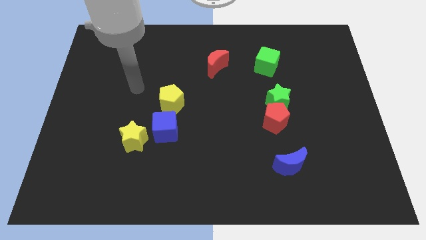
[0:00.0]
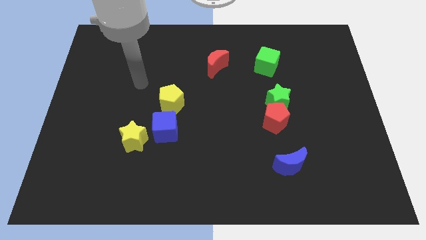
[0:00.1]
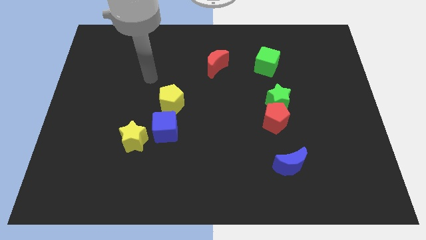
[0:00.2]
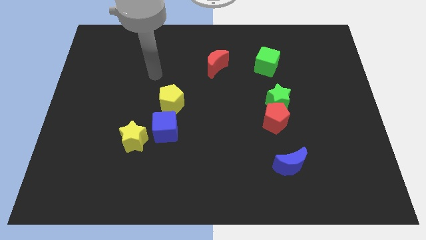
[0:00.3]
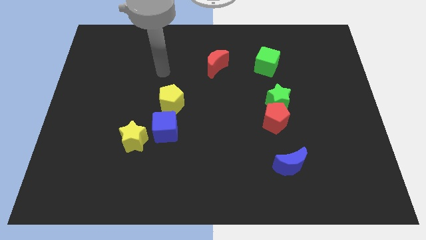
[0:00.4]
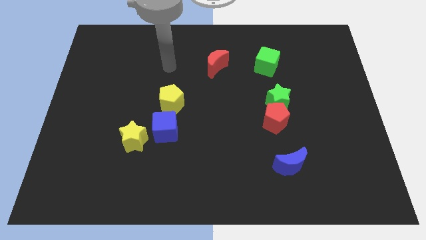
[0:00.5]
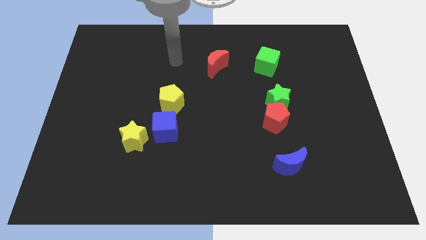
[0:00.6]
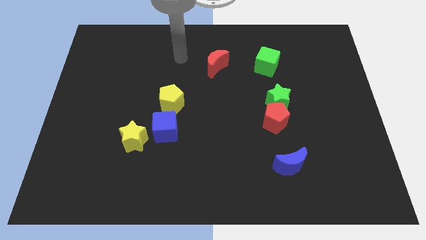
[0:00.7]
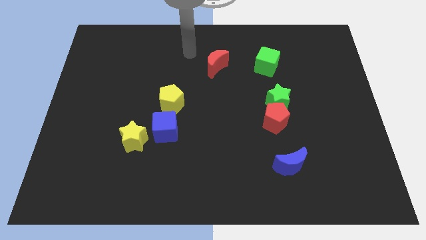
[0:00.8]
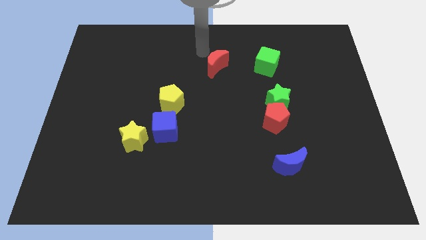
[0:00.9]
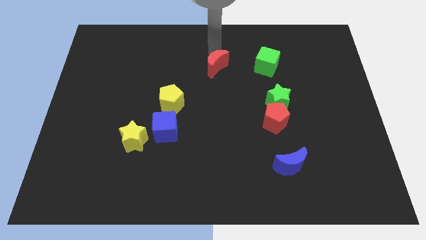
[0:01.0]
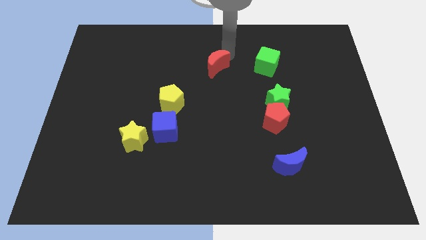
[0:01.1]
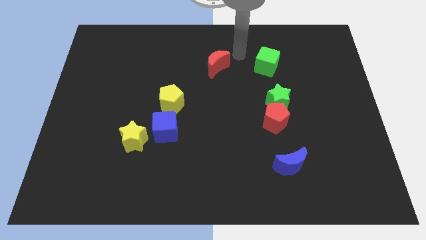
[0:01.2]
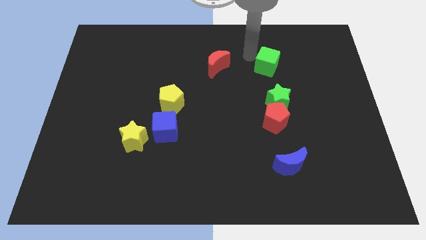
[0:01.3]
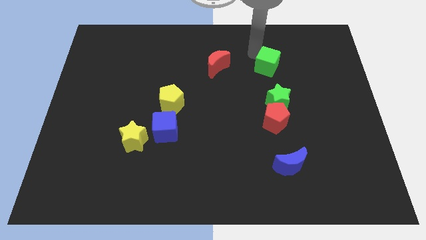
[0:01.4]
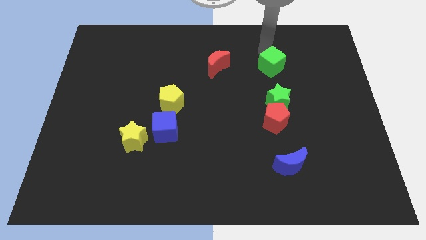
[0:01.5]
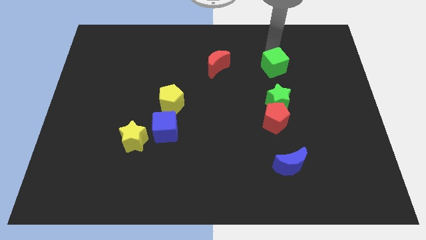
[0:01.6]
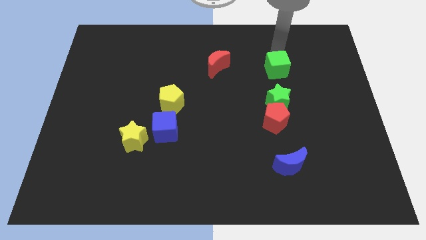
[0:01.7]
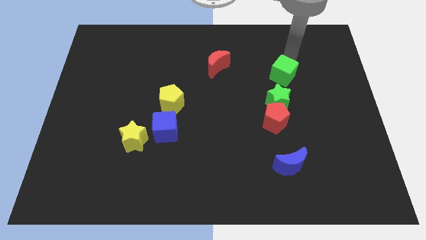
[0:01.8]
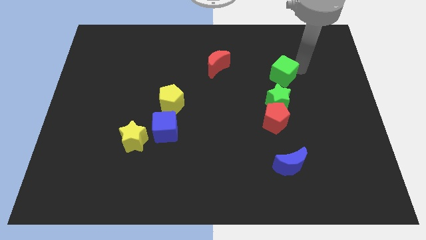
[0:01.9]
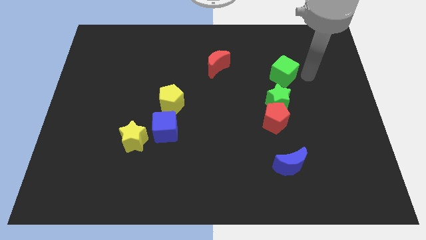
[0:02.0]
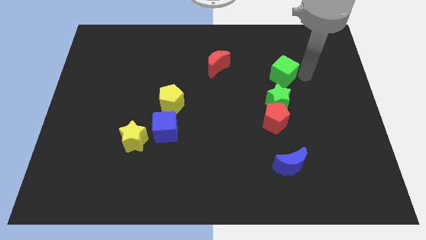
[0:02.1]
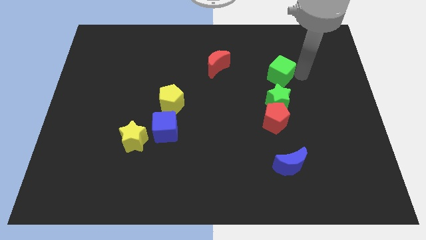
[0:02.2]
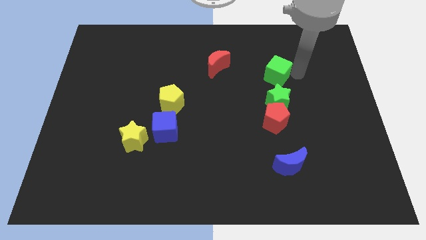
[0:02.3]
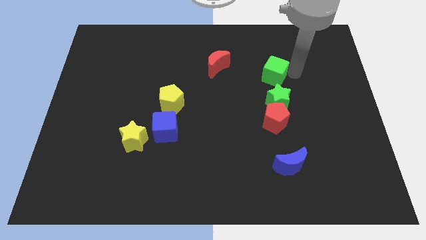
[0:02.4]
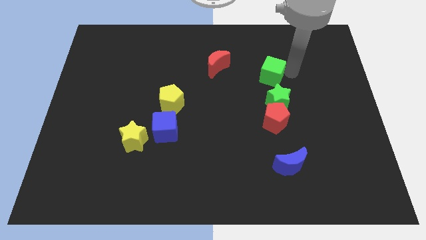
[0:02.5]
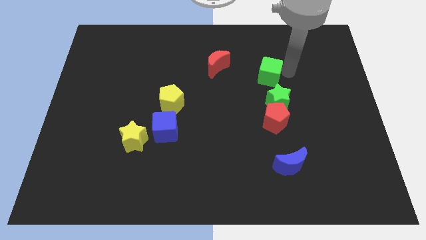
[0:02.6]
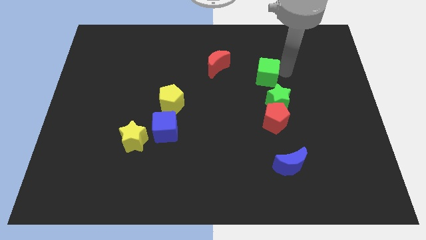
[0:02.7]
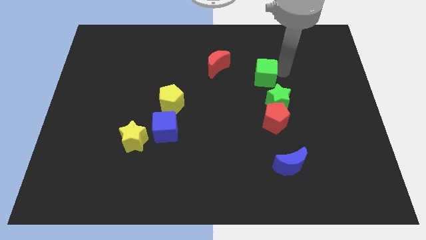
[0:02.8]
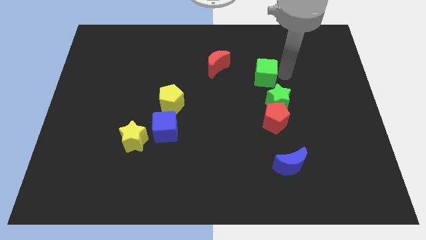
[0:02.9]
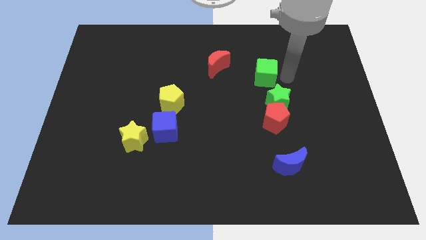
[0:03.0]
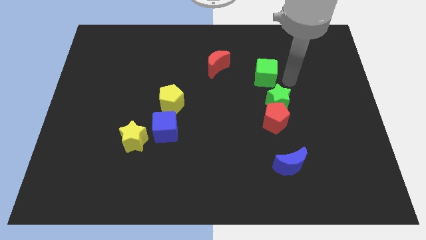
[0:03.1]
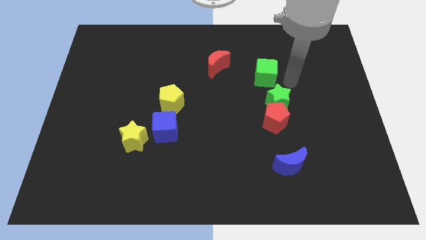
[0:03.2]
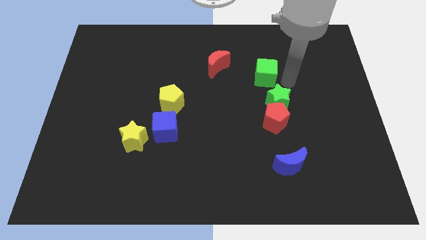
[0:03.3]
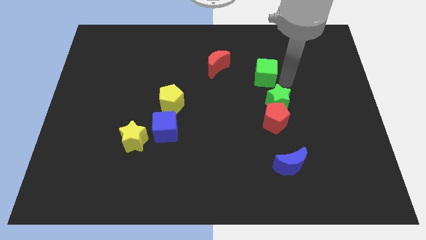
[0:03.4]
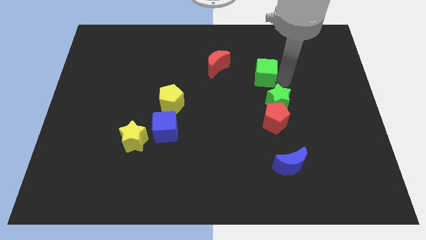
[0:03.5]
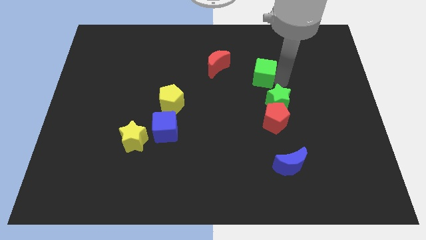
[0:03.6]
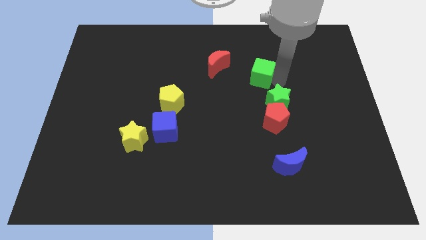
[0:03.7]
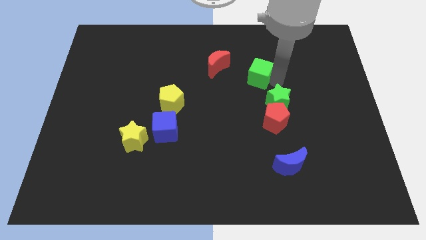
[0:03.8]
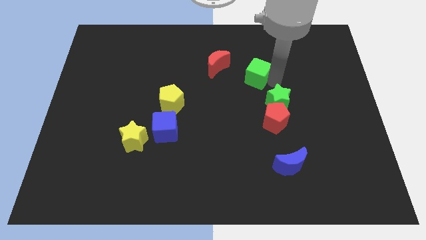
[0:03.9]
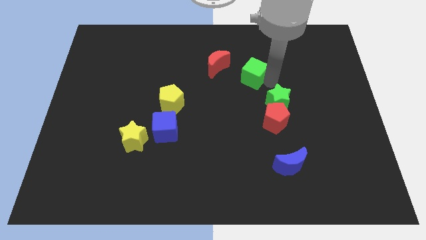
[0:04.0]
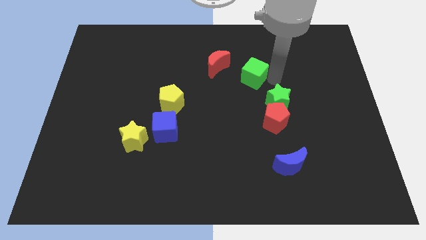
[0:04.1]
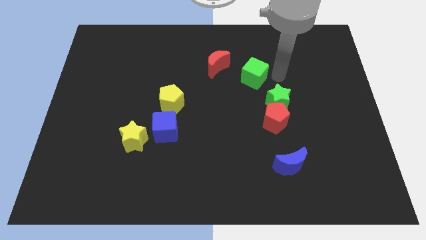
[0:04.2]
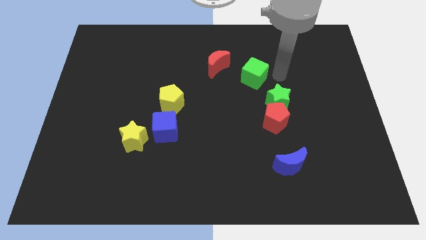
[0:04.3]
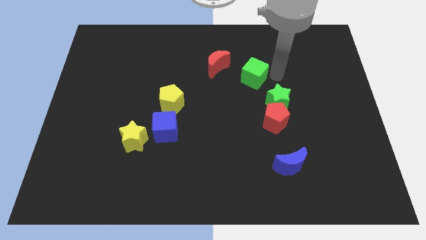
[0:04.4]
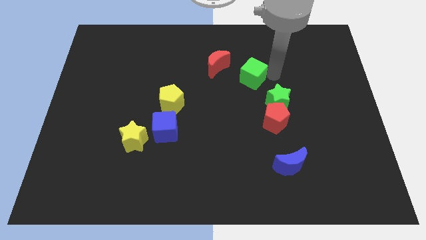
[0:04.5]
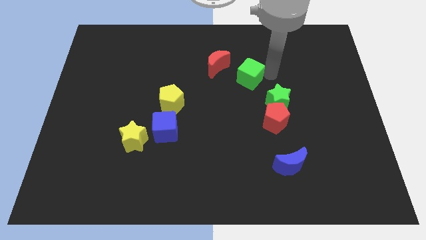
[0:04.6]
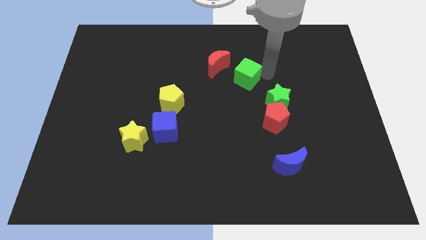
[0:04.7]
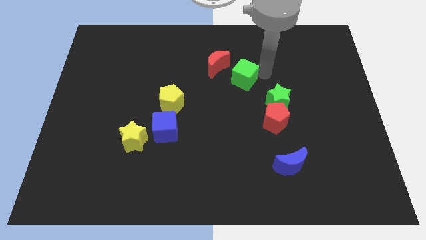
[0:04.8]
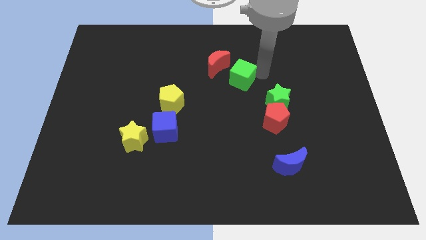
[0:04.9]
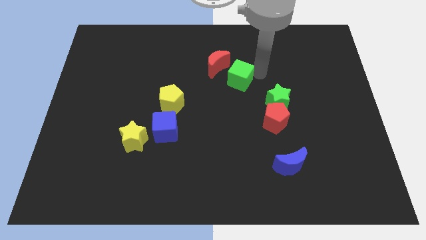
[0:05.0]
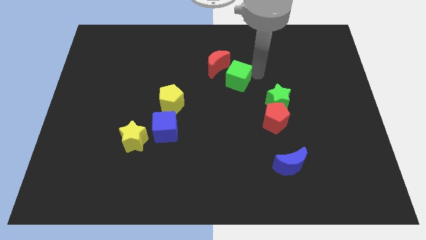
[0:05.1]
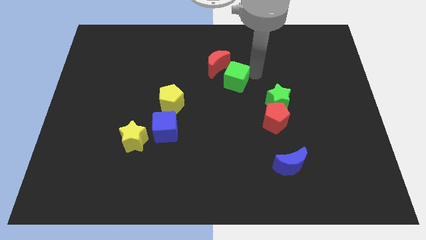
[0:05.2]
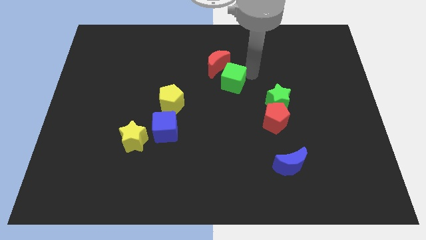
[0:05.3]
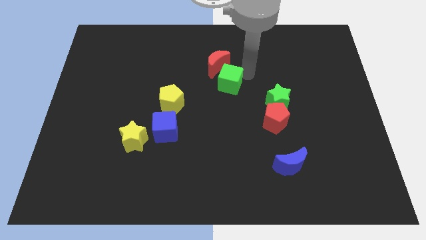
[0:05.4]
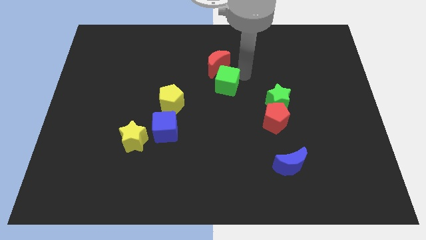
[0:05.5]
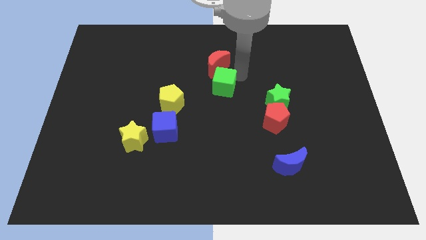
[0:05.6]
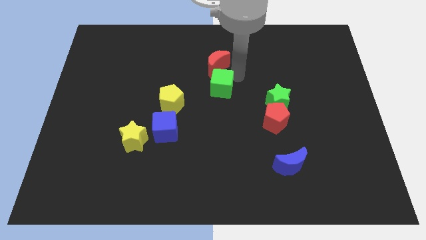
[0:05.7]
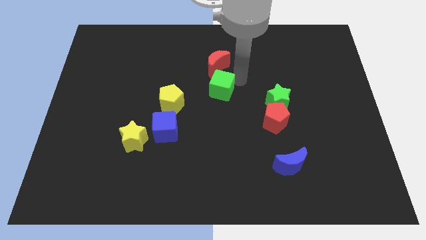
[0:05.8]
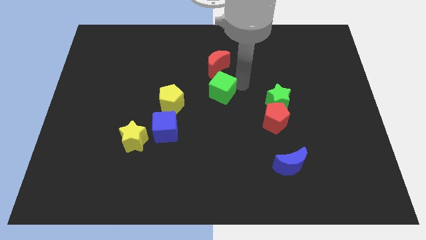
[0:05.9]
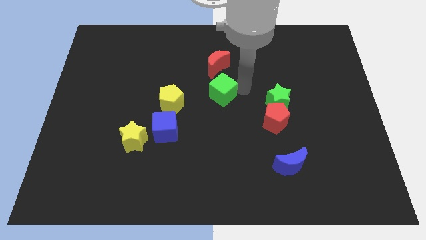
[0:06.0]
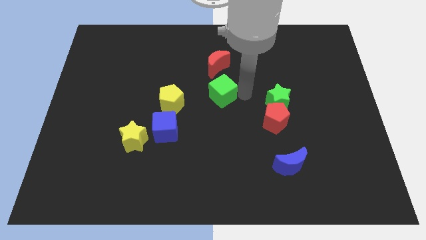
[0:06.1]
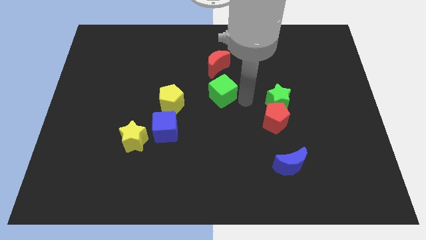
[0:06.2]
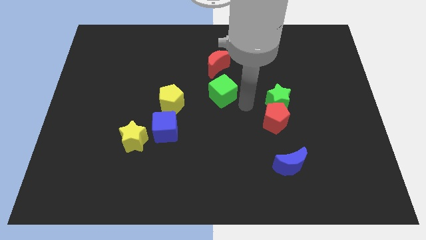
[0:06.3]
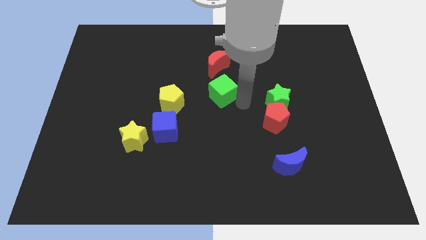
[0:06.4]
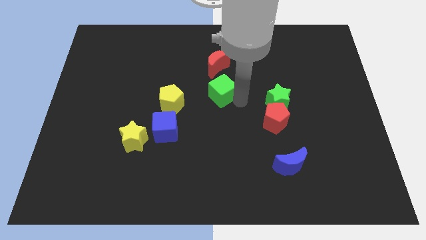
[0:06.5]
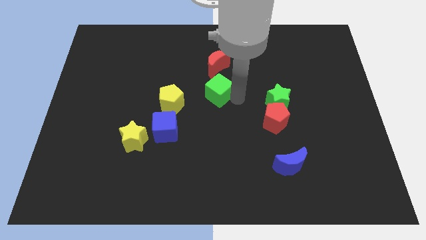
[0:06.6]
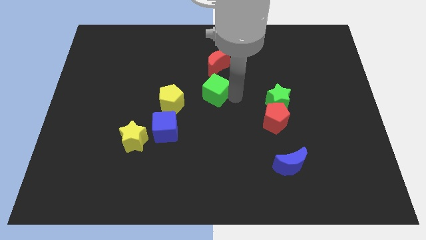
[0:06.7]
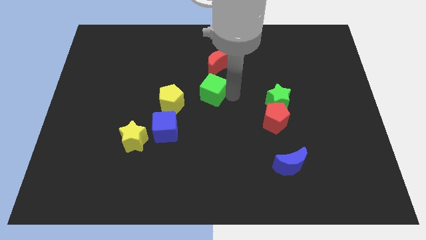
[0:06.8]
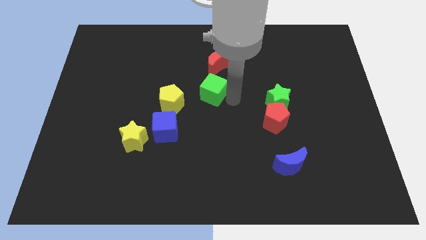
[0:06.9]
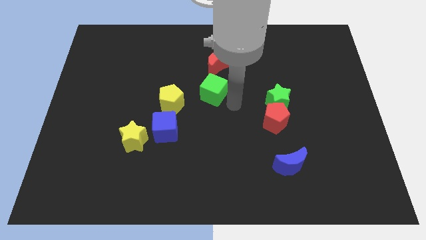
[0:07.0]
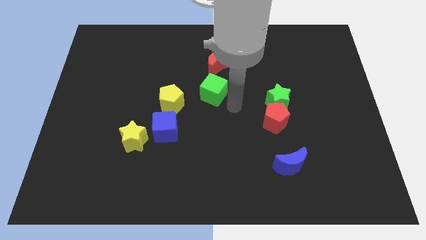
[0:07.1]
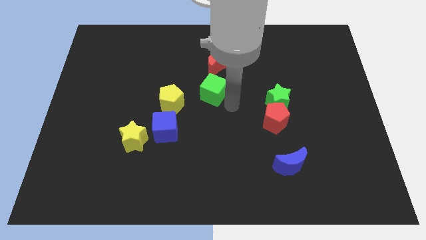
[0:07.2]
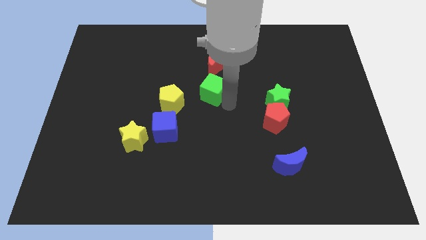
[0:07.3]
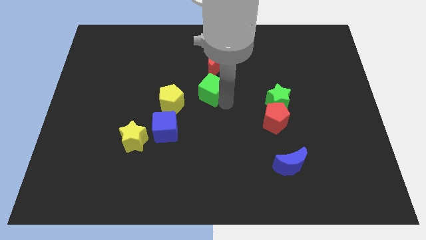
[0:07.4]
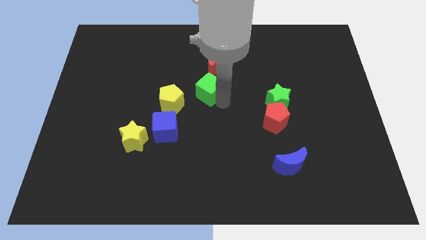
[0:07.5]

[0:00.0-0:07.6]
put the green cube diagonally down and to the left of the red moon
